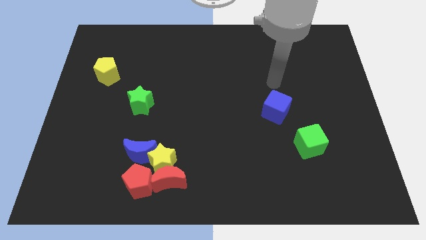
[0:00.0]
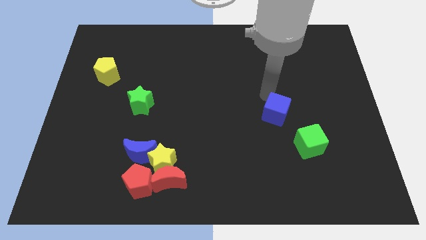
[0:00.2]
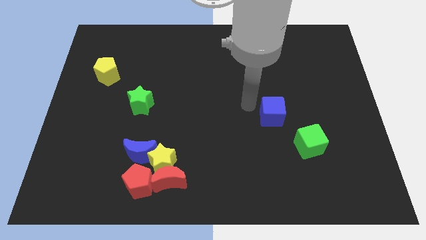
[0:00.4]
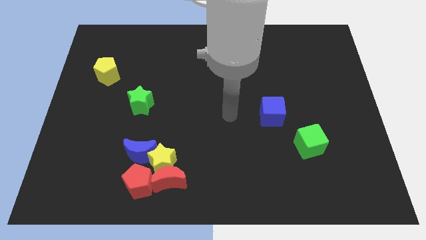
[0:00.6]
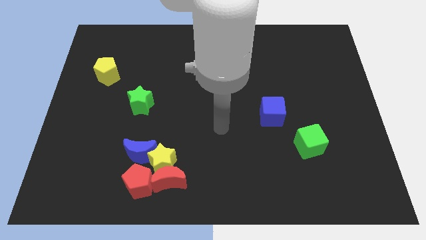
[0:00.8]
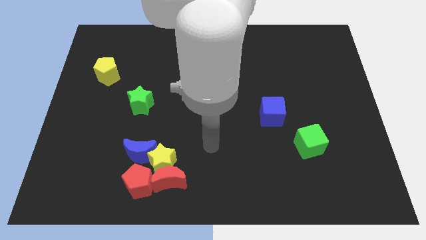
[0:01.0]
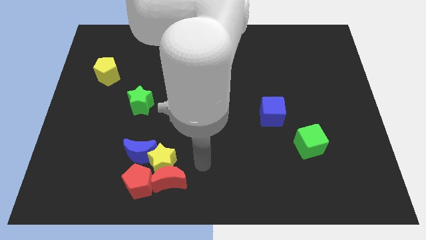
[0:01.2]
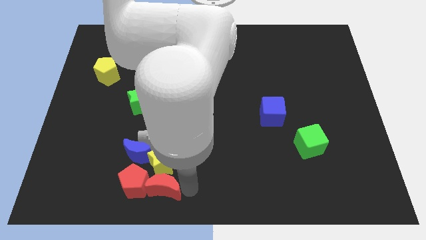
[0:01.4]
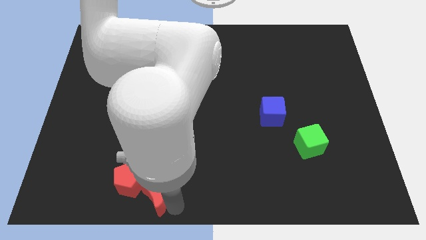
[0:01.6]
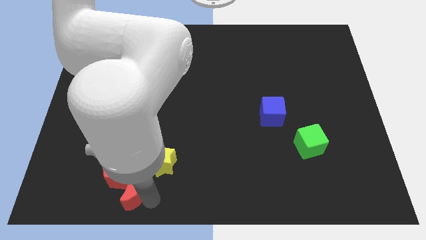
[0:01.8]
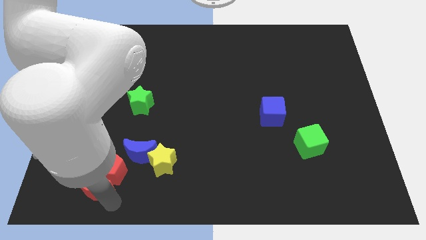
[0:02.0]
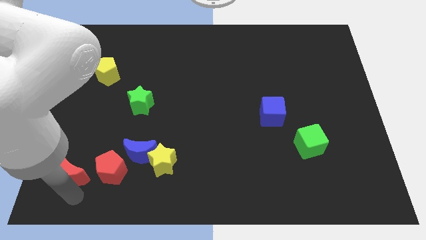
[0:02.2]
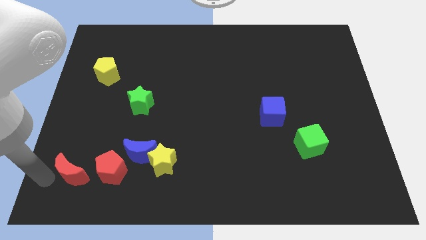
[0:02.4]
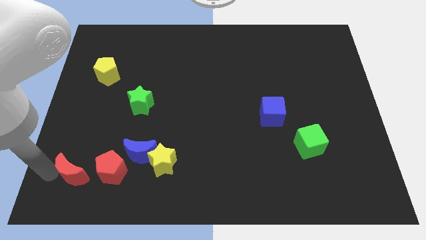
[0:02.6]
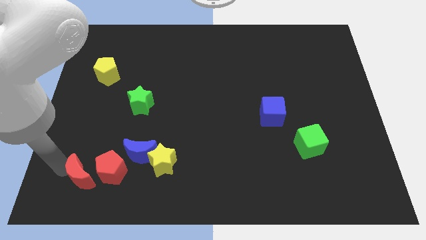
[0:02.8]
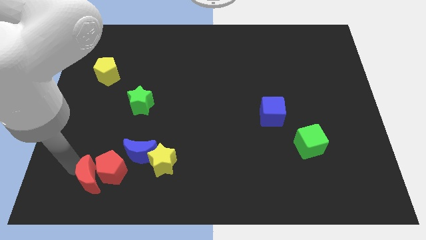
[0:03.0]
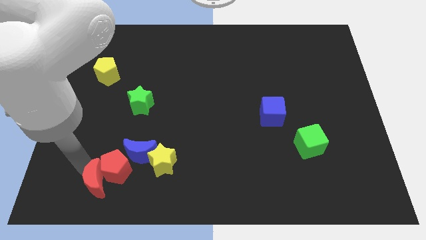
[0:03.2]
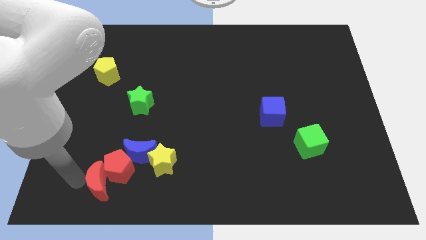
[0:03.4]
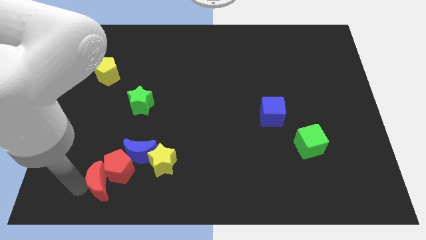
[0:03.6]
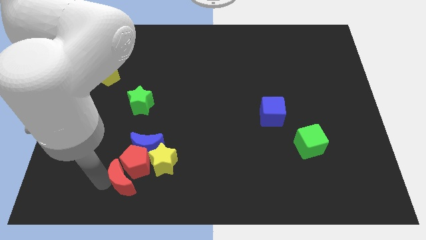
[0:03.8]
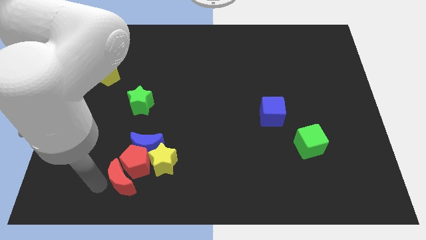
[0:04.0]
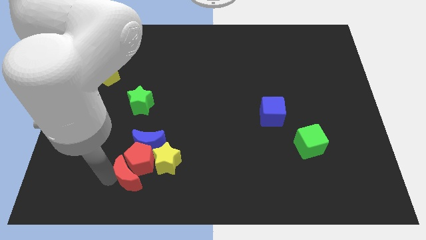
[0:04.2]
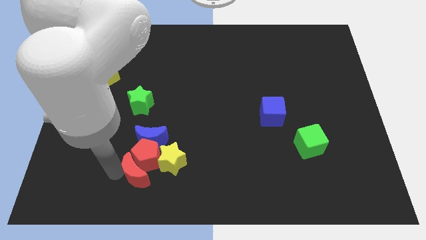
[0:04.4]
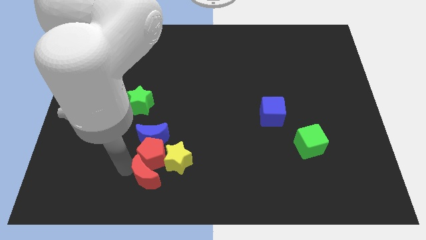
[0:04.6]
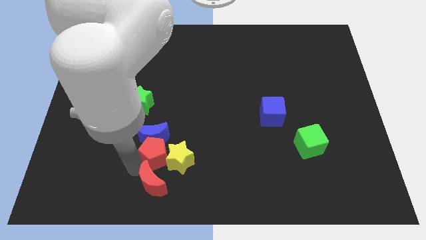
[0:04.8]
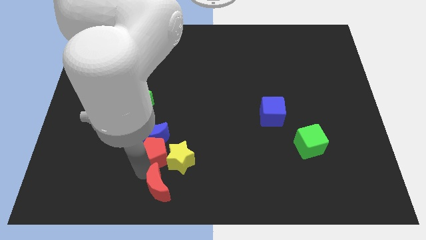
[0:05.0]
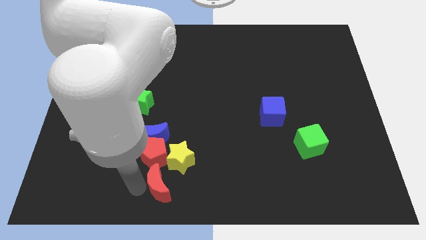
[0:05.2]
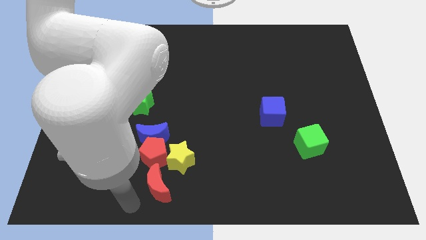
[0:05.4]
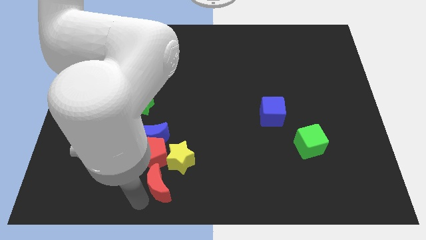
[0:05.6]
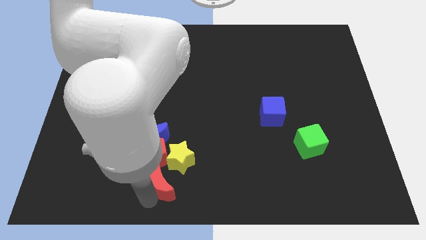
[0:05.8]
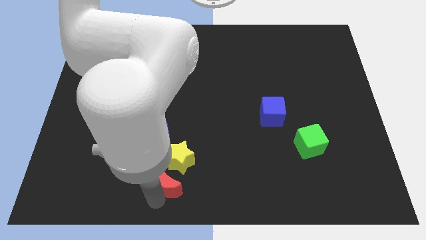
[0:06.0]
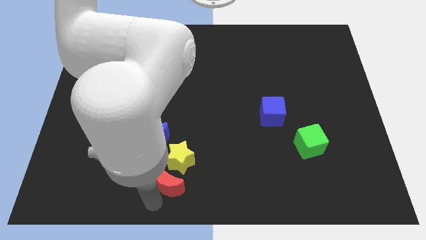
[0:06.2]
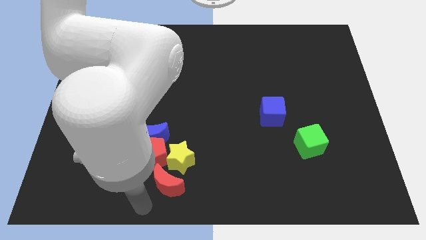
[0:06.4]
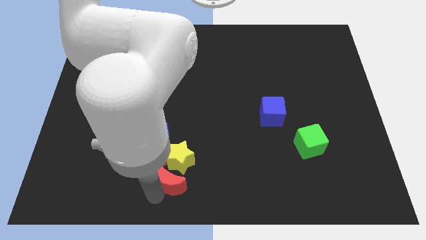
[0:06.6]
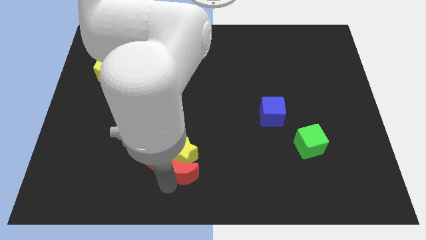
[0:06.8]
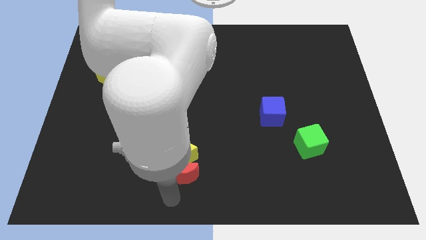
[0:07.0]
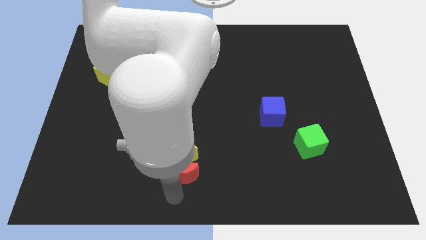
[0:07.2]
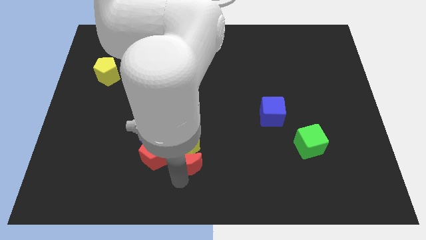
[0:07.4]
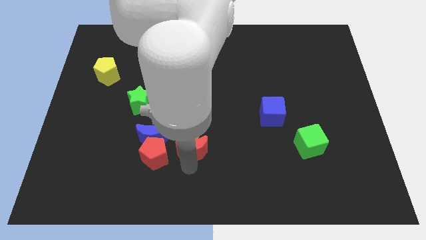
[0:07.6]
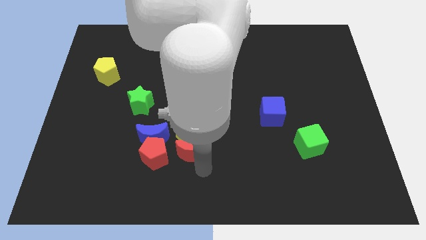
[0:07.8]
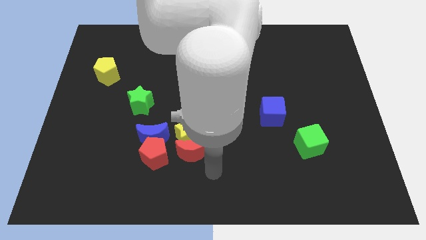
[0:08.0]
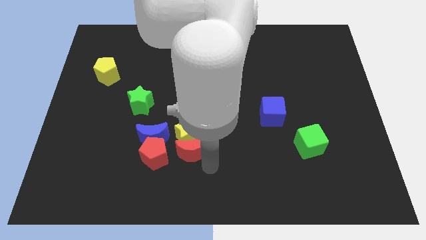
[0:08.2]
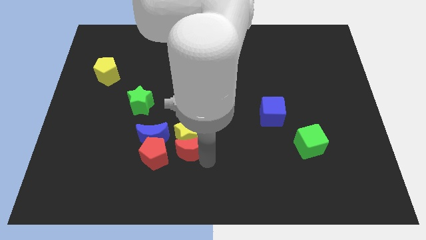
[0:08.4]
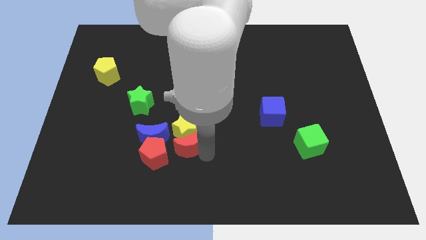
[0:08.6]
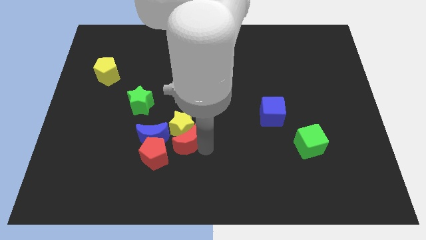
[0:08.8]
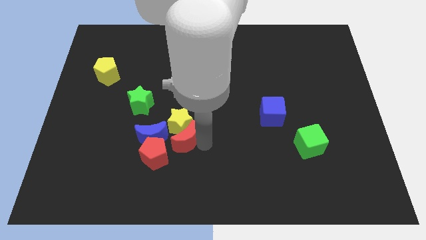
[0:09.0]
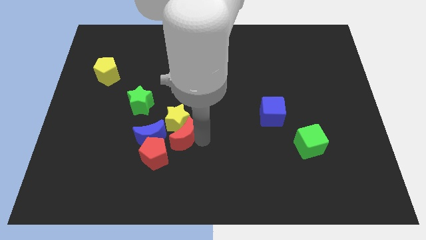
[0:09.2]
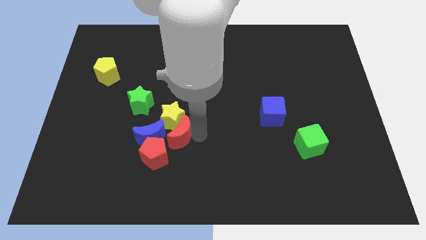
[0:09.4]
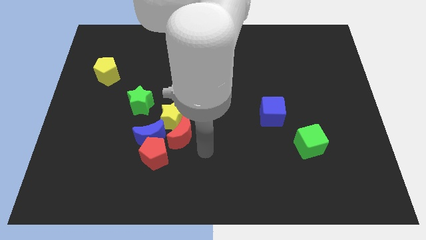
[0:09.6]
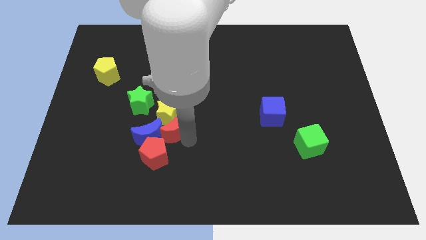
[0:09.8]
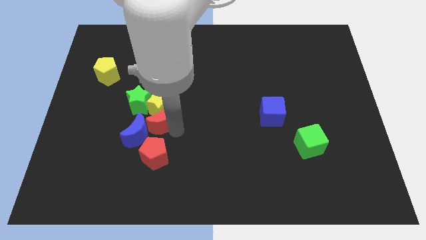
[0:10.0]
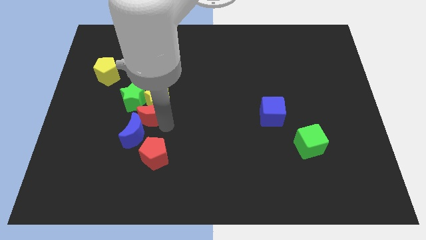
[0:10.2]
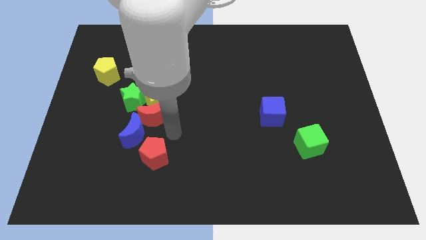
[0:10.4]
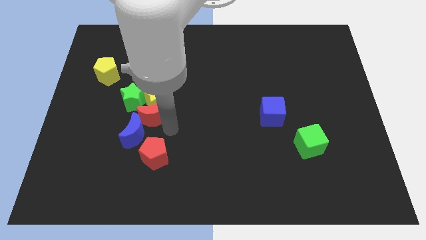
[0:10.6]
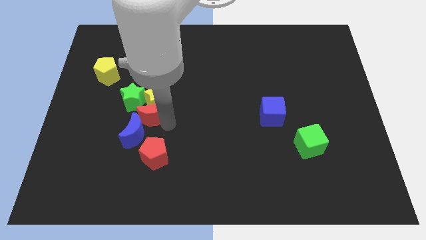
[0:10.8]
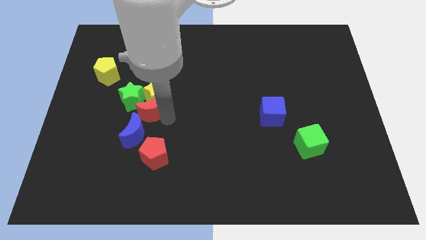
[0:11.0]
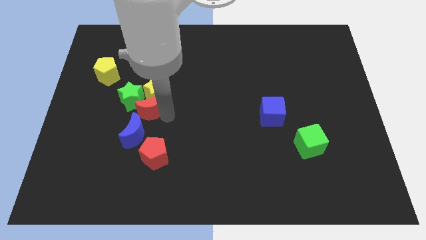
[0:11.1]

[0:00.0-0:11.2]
push the red moon close to the green star
